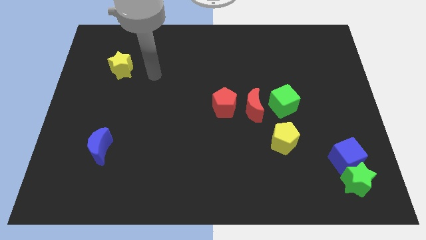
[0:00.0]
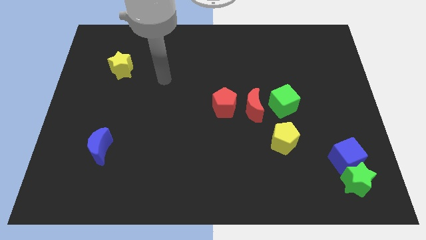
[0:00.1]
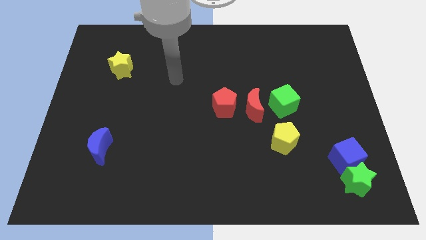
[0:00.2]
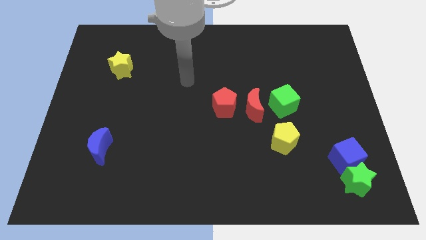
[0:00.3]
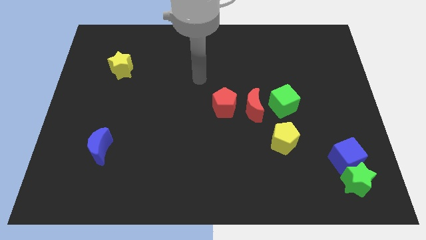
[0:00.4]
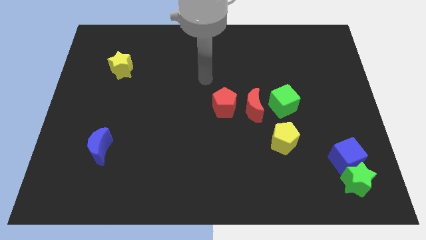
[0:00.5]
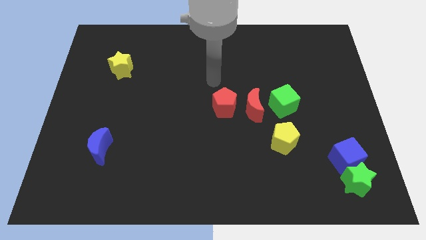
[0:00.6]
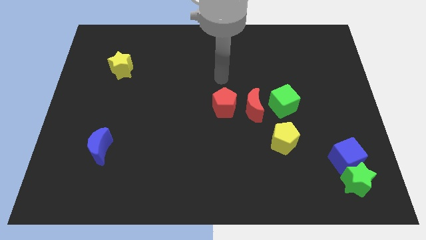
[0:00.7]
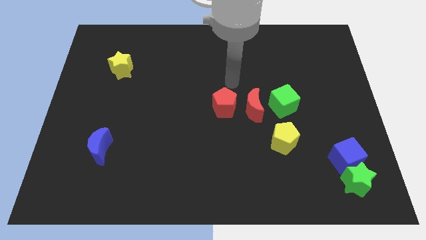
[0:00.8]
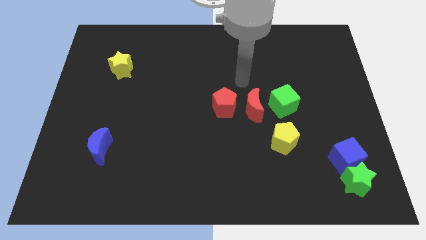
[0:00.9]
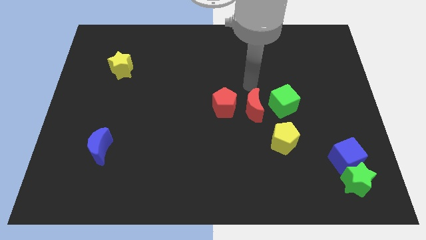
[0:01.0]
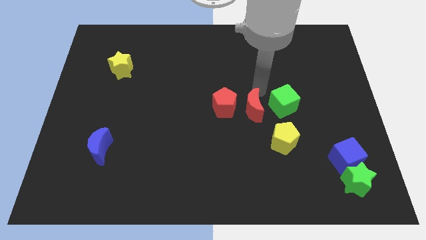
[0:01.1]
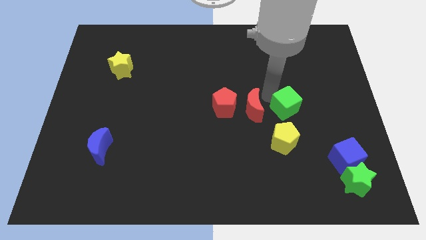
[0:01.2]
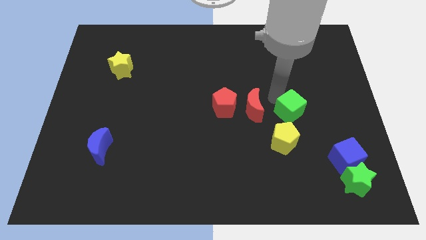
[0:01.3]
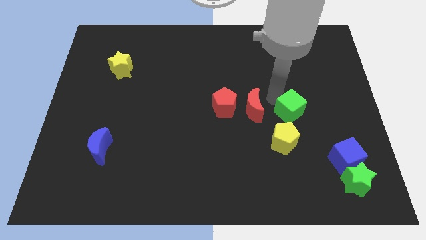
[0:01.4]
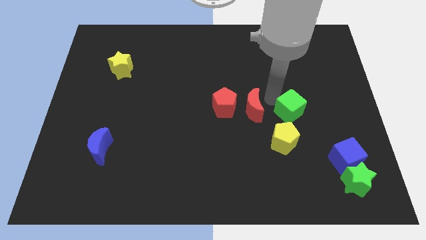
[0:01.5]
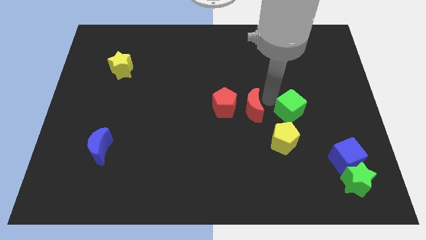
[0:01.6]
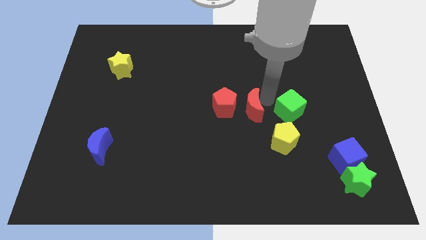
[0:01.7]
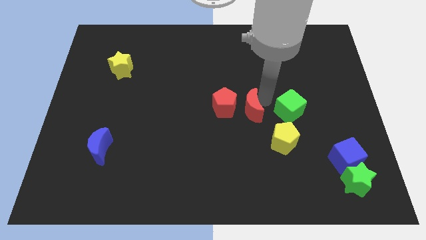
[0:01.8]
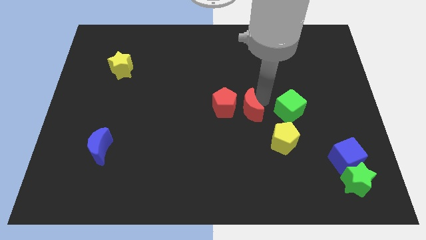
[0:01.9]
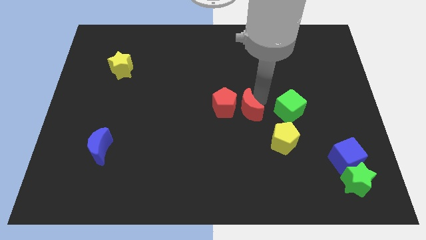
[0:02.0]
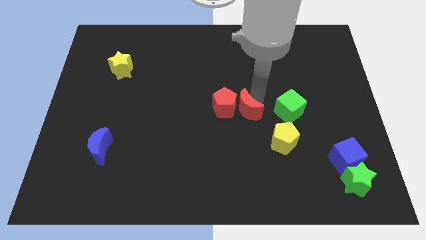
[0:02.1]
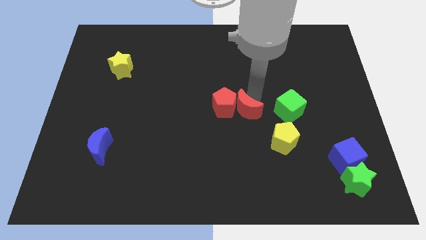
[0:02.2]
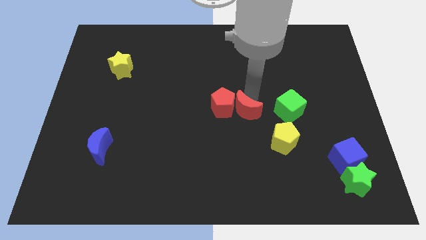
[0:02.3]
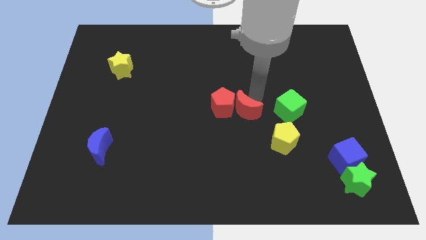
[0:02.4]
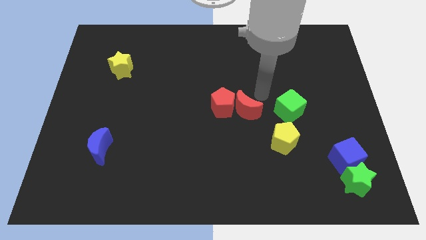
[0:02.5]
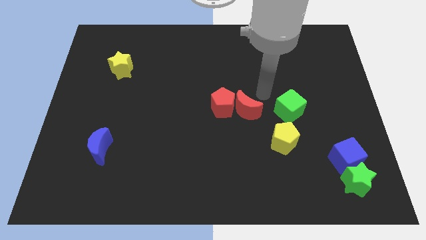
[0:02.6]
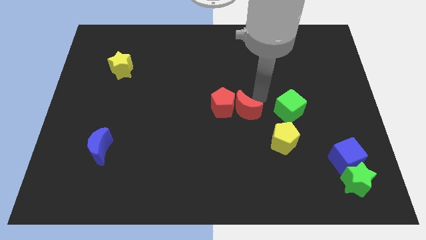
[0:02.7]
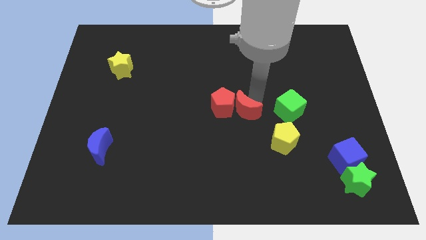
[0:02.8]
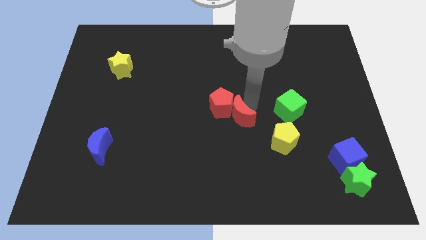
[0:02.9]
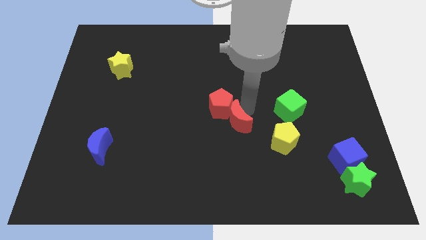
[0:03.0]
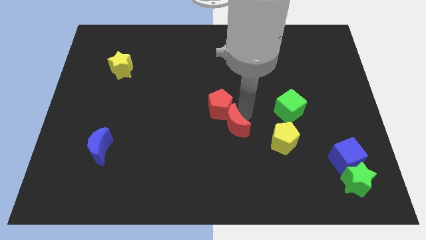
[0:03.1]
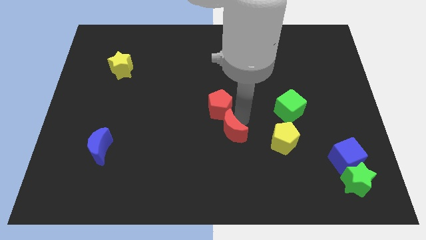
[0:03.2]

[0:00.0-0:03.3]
slide the red moon down and to the left diagonally somewhat

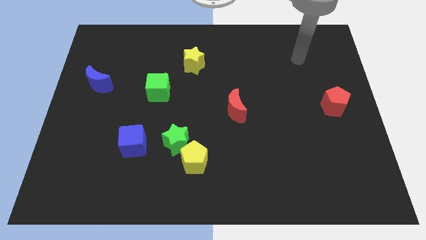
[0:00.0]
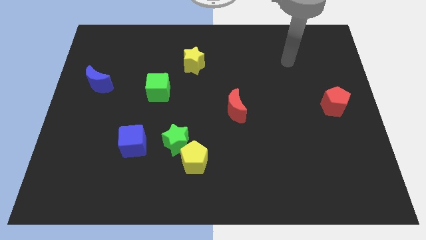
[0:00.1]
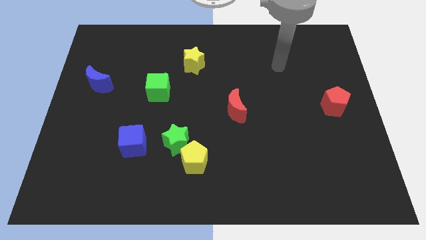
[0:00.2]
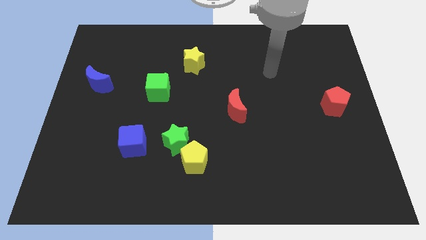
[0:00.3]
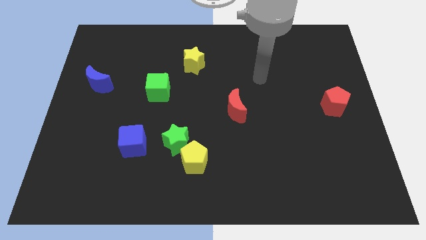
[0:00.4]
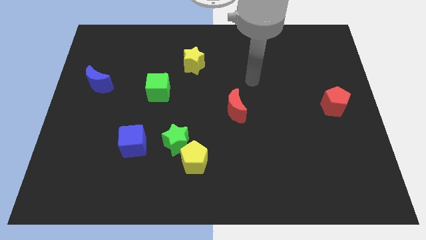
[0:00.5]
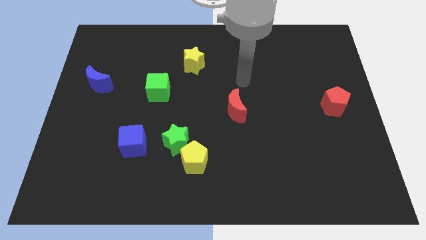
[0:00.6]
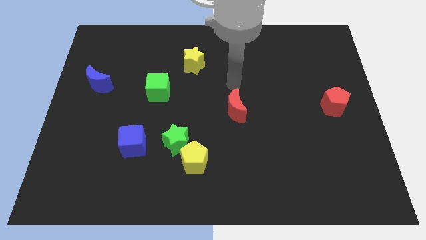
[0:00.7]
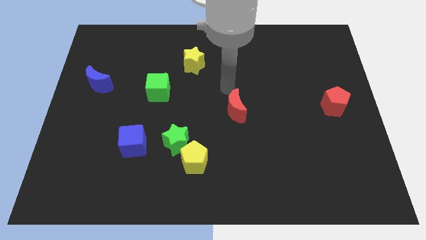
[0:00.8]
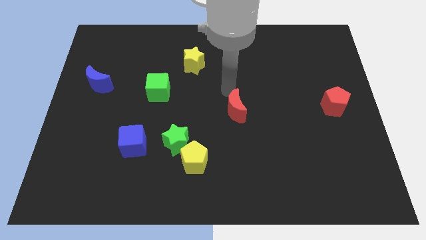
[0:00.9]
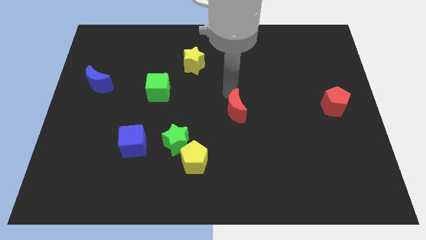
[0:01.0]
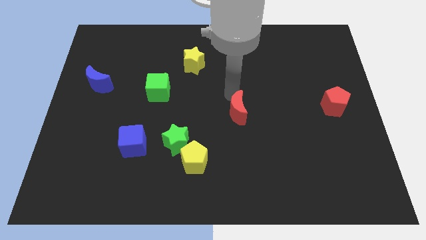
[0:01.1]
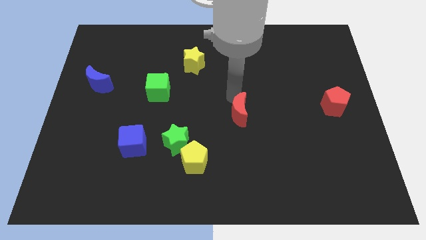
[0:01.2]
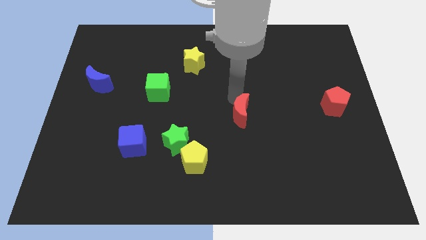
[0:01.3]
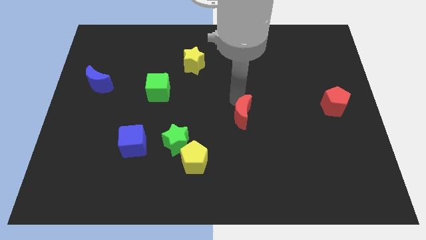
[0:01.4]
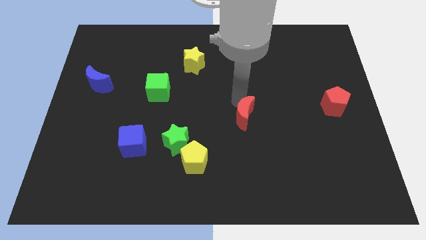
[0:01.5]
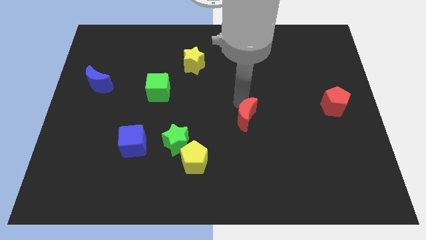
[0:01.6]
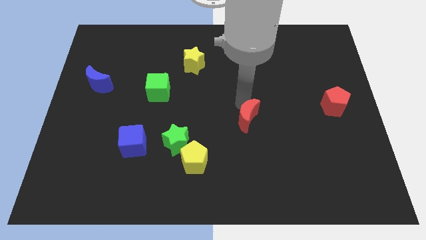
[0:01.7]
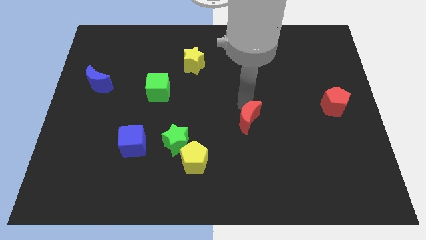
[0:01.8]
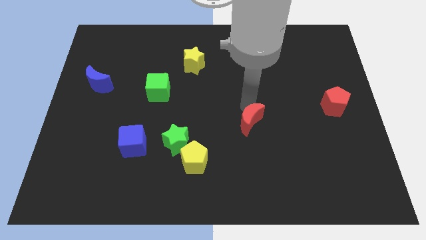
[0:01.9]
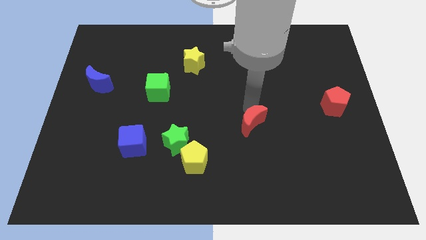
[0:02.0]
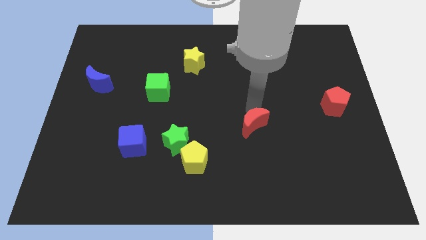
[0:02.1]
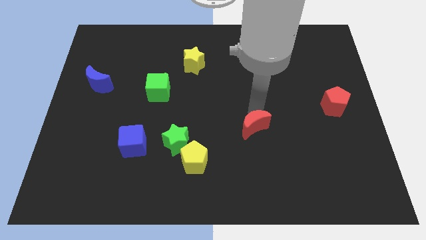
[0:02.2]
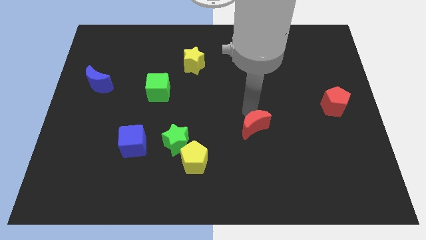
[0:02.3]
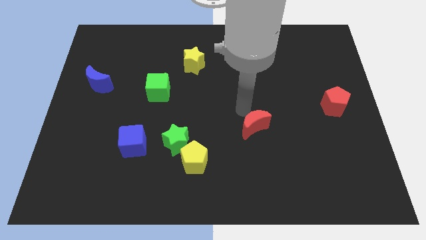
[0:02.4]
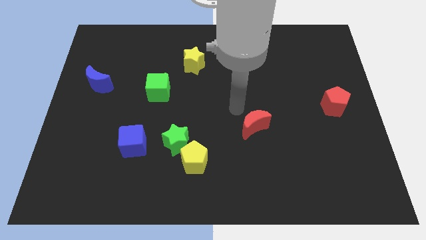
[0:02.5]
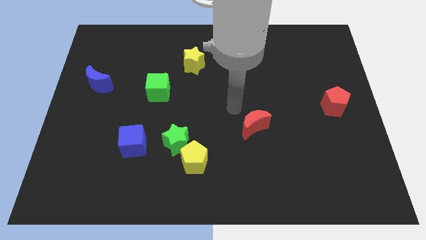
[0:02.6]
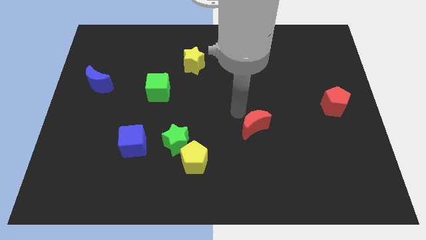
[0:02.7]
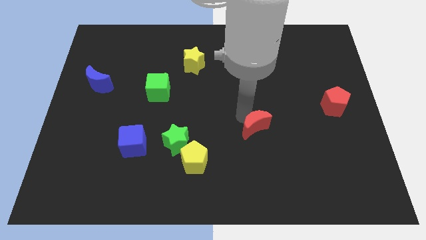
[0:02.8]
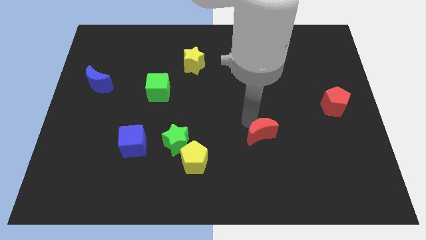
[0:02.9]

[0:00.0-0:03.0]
push the red moon downwards and then to the right slightly

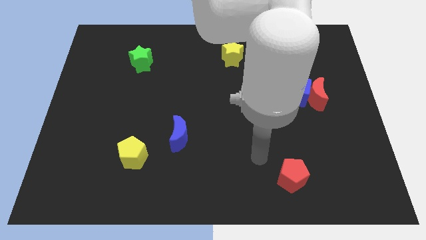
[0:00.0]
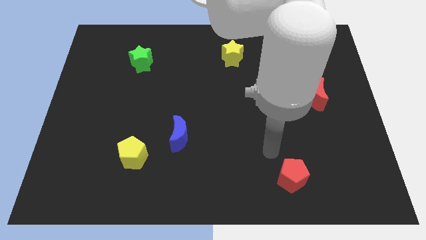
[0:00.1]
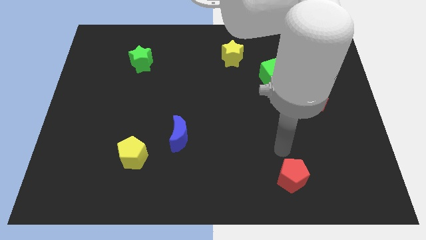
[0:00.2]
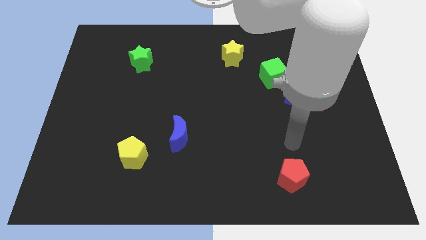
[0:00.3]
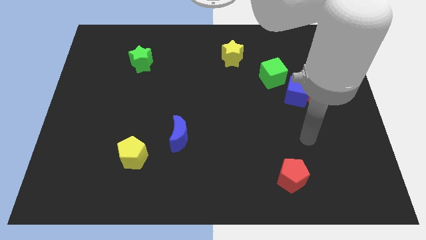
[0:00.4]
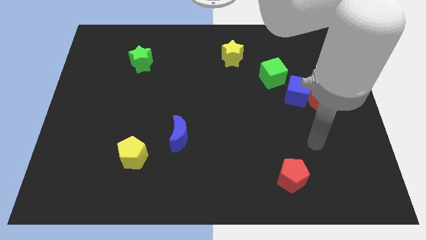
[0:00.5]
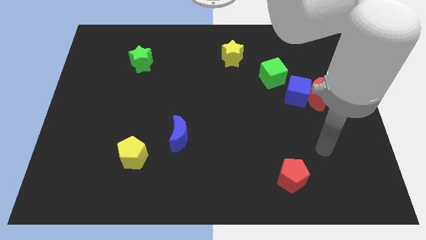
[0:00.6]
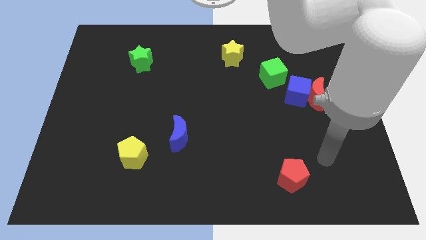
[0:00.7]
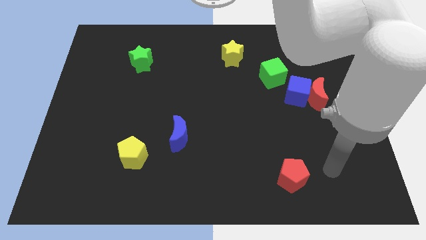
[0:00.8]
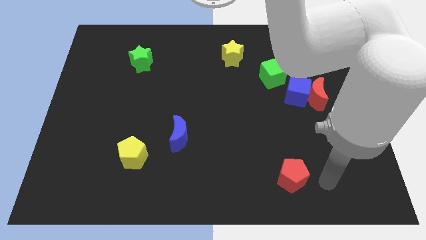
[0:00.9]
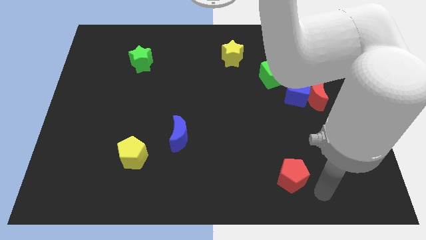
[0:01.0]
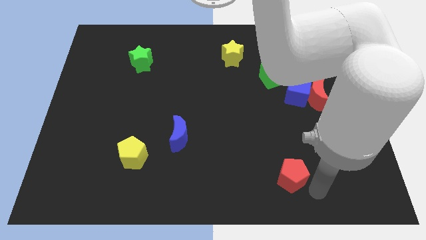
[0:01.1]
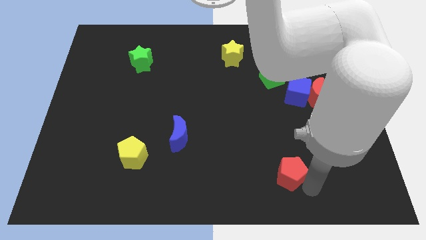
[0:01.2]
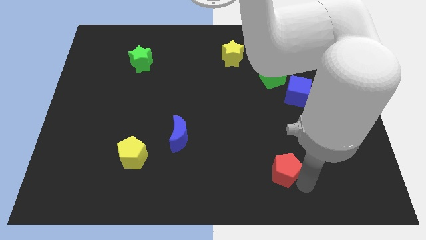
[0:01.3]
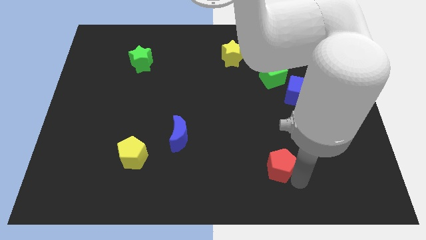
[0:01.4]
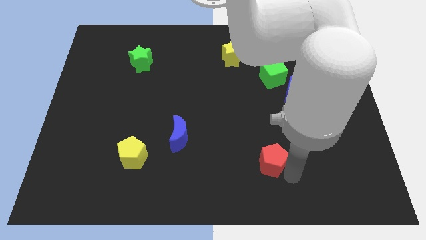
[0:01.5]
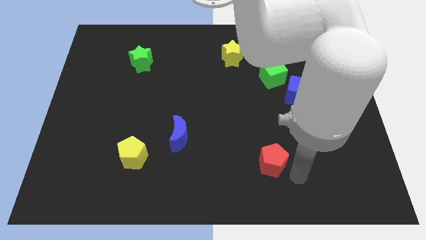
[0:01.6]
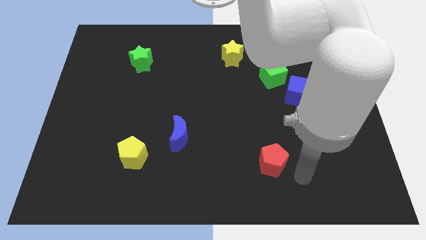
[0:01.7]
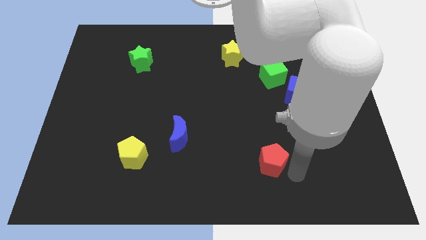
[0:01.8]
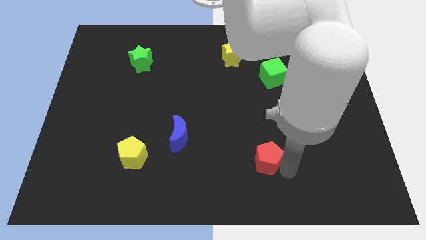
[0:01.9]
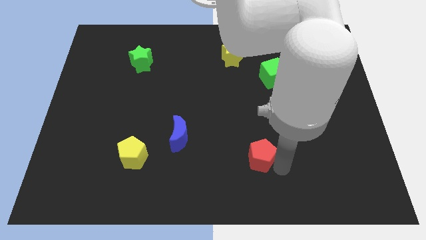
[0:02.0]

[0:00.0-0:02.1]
slightly slide the red pentagon upwards and to the left diagonally
